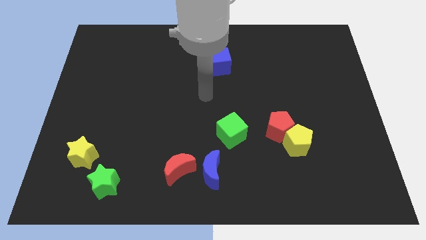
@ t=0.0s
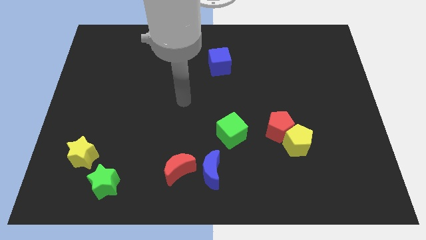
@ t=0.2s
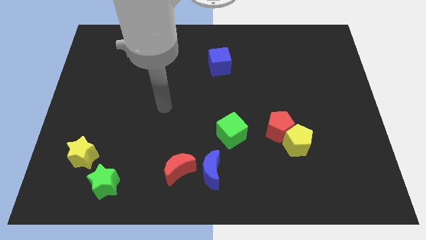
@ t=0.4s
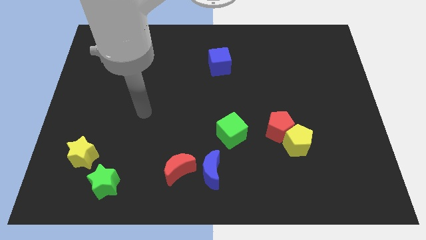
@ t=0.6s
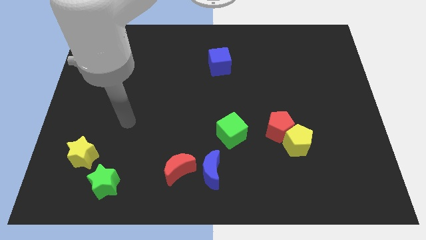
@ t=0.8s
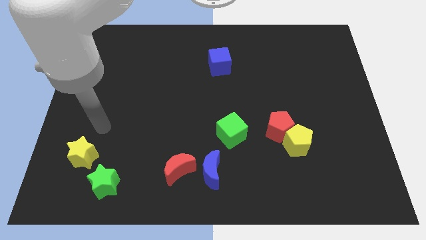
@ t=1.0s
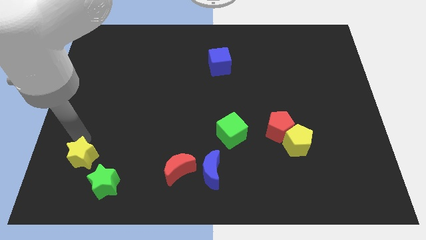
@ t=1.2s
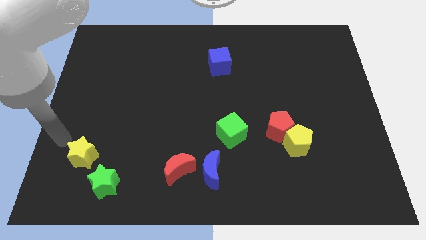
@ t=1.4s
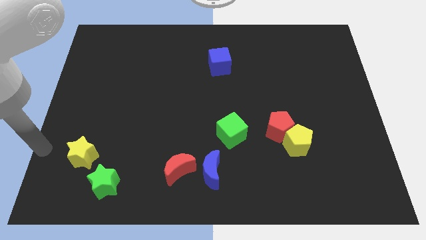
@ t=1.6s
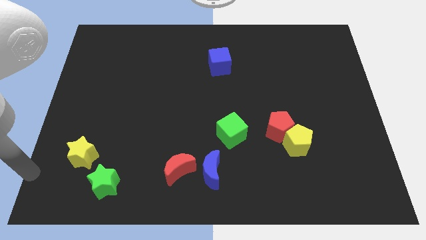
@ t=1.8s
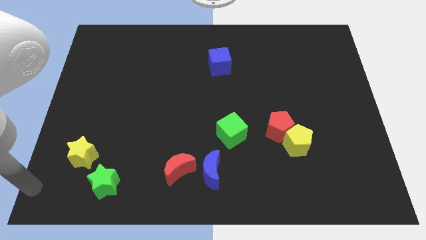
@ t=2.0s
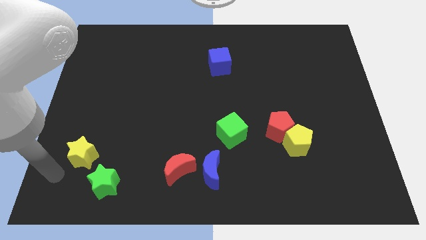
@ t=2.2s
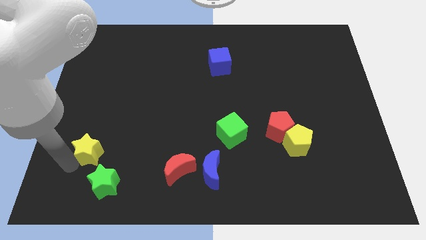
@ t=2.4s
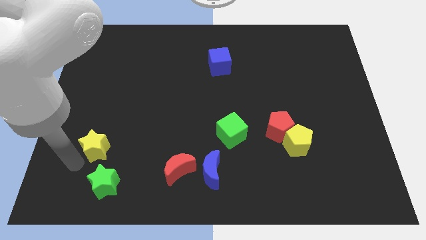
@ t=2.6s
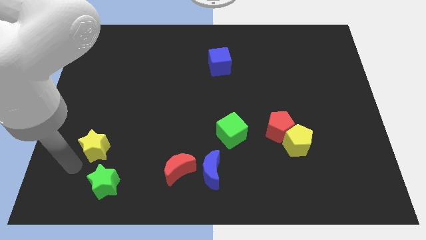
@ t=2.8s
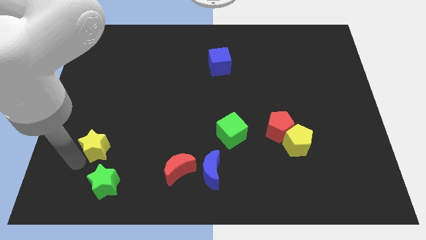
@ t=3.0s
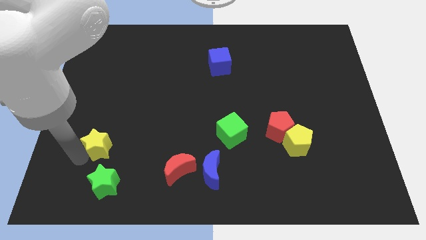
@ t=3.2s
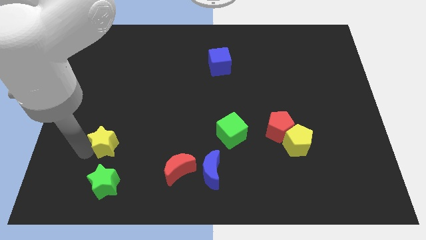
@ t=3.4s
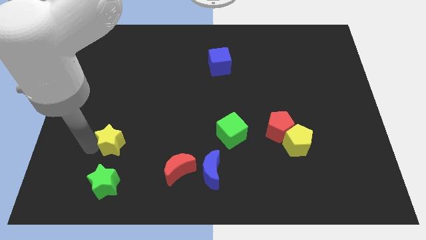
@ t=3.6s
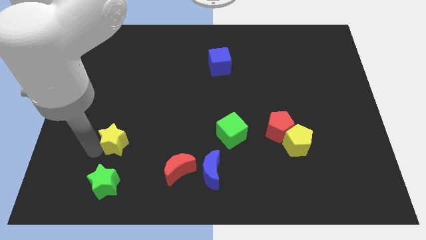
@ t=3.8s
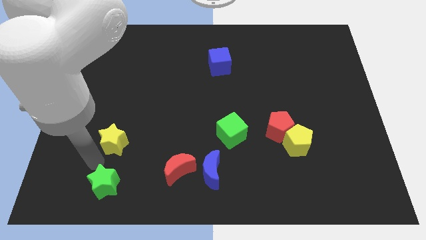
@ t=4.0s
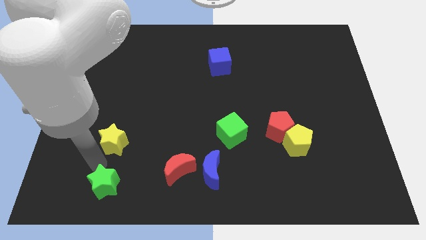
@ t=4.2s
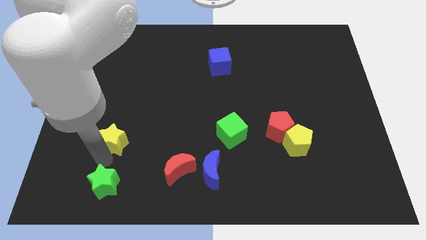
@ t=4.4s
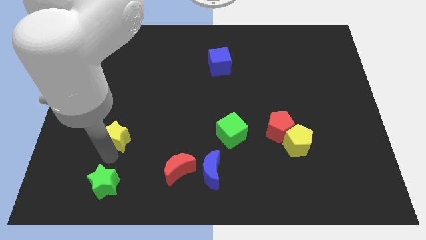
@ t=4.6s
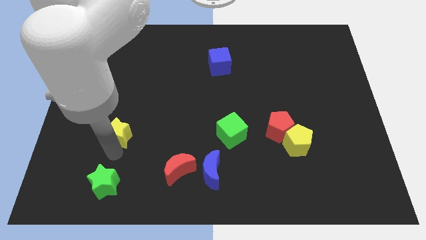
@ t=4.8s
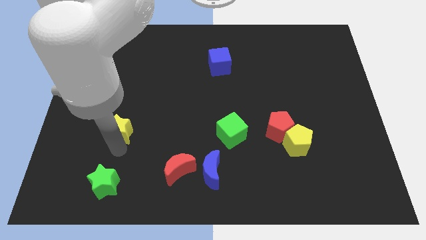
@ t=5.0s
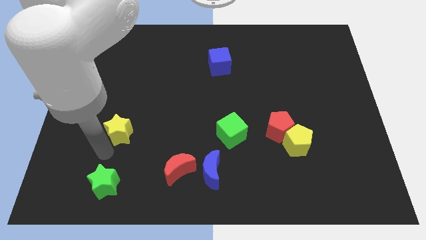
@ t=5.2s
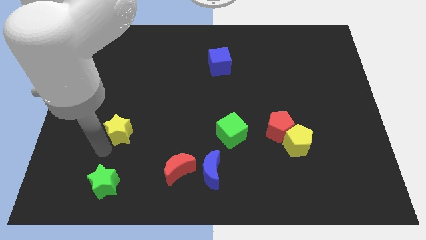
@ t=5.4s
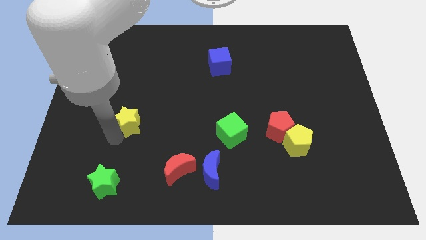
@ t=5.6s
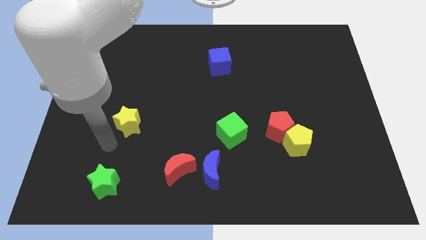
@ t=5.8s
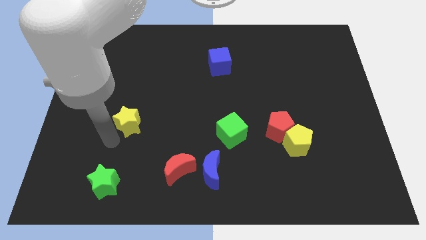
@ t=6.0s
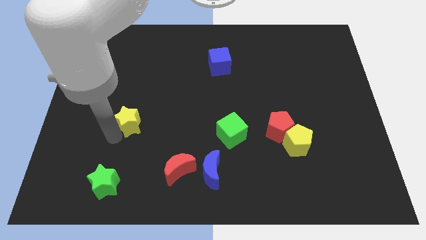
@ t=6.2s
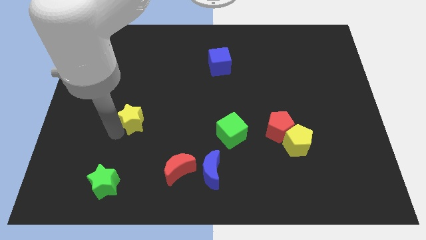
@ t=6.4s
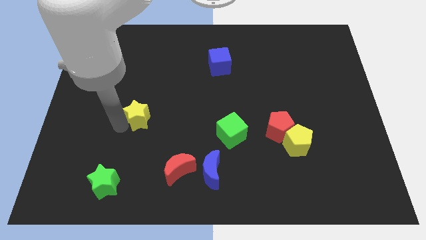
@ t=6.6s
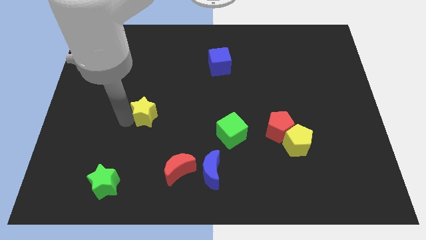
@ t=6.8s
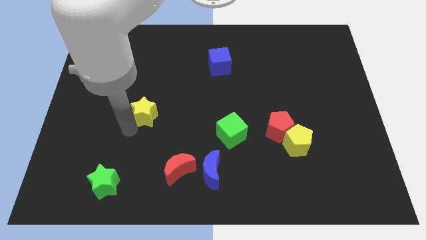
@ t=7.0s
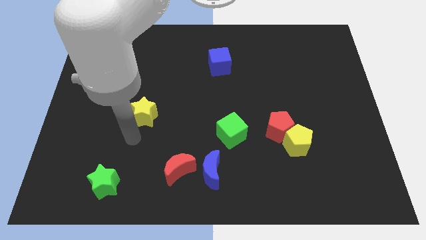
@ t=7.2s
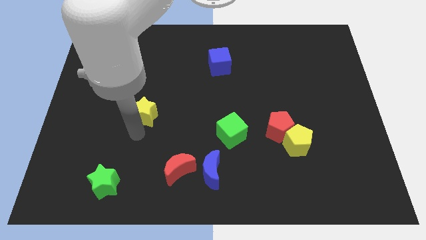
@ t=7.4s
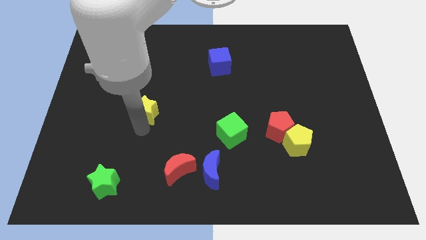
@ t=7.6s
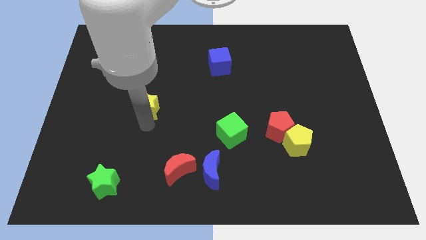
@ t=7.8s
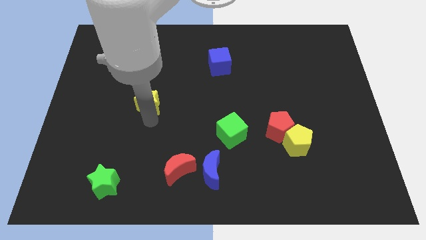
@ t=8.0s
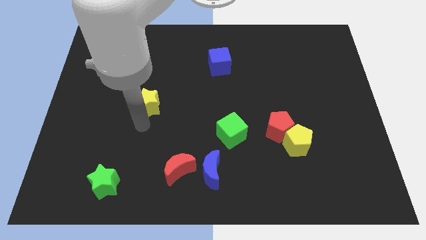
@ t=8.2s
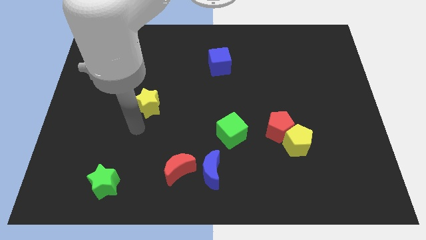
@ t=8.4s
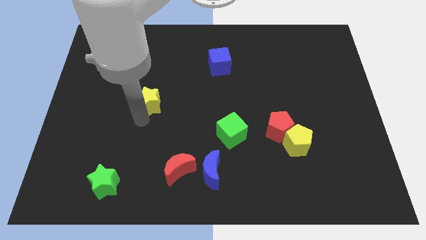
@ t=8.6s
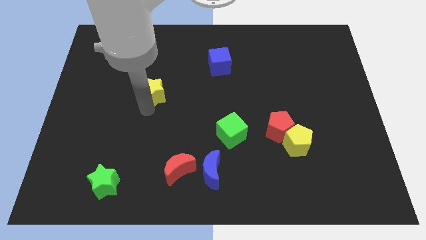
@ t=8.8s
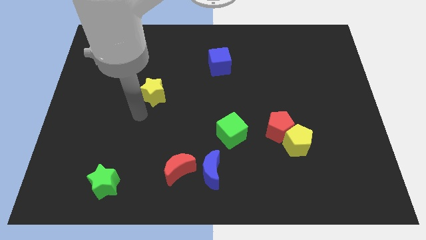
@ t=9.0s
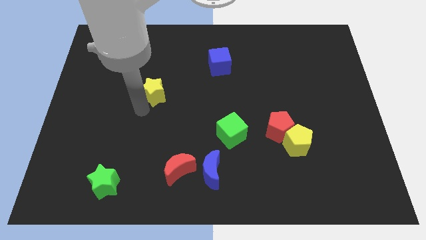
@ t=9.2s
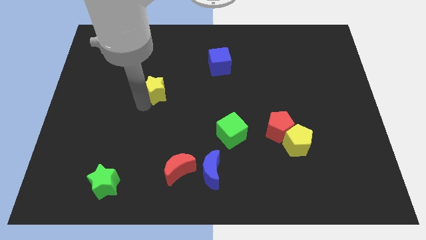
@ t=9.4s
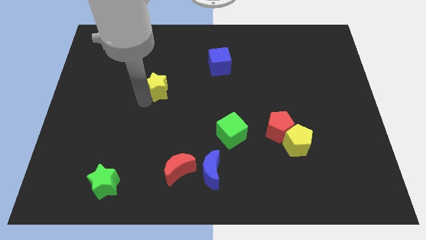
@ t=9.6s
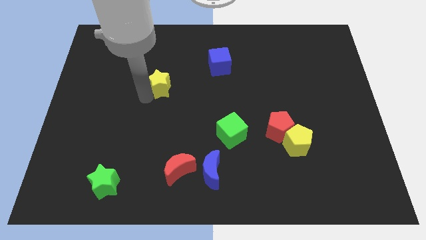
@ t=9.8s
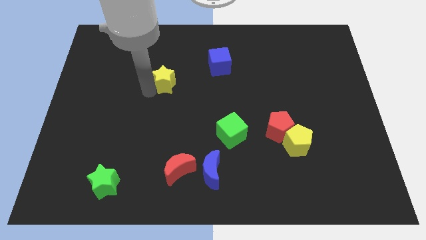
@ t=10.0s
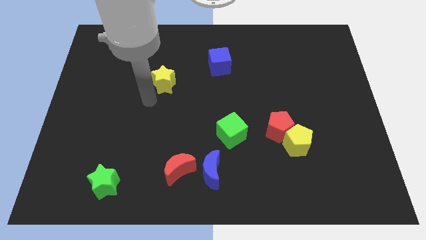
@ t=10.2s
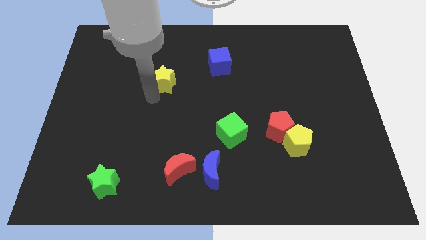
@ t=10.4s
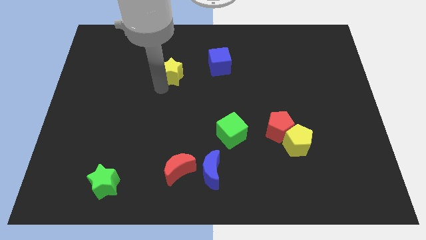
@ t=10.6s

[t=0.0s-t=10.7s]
slide the yellow star just left of the blue cube

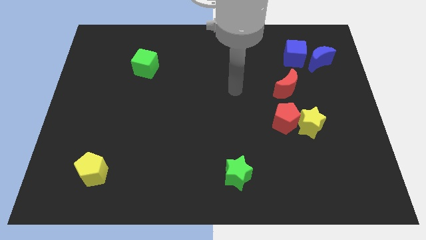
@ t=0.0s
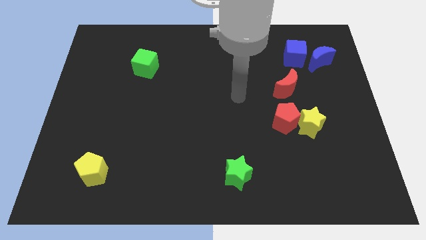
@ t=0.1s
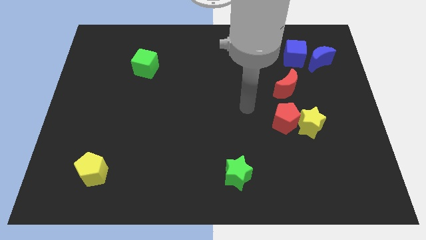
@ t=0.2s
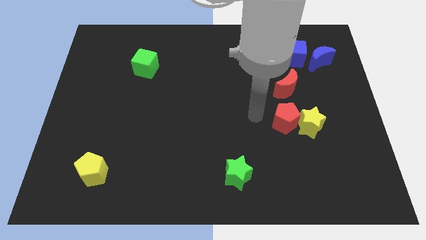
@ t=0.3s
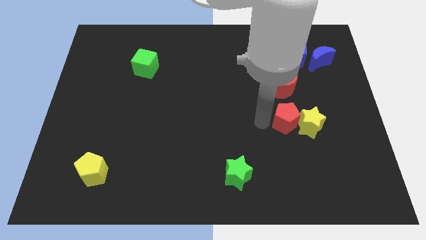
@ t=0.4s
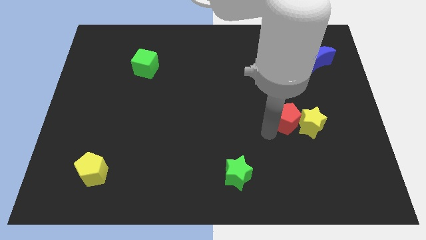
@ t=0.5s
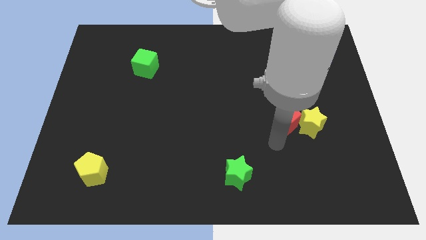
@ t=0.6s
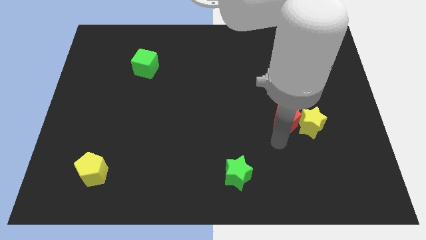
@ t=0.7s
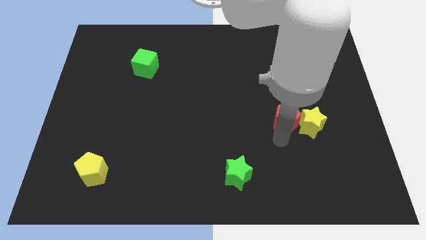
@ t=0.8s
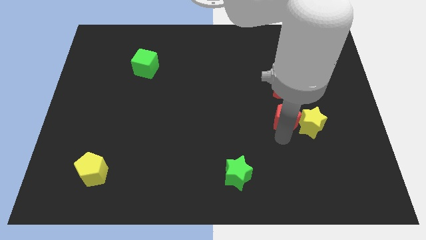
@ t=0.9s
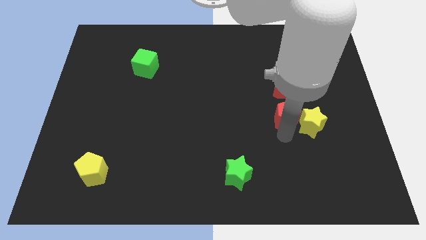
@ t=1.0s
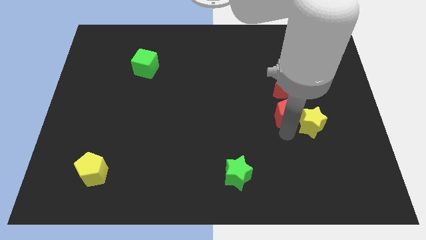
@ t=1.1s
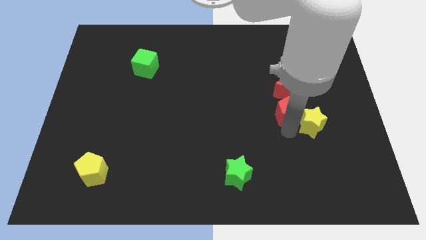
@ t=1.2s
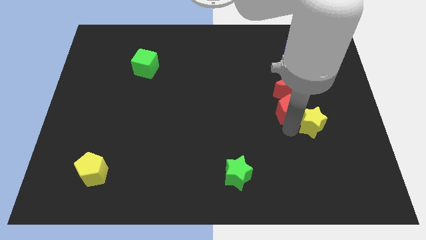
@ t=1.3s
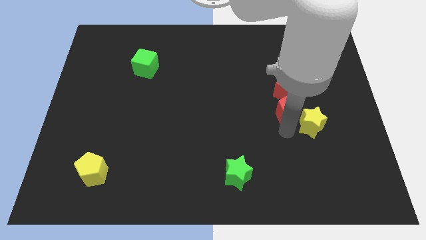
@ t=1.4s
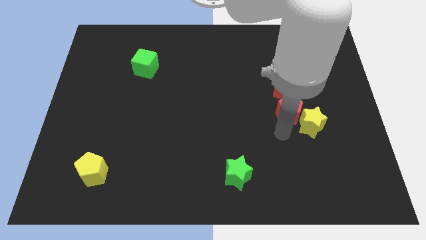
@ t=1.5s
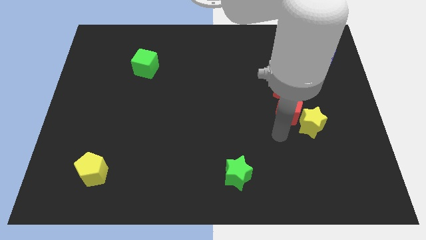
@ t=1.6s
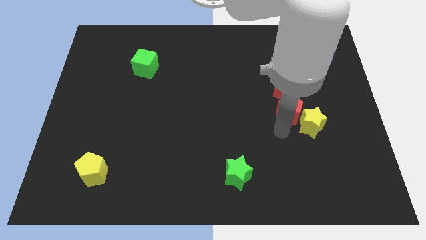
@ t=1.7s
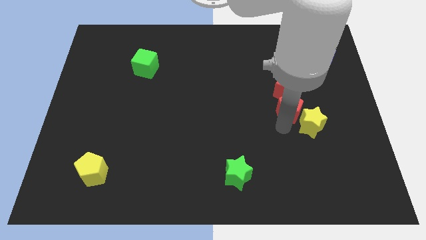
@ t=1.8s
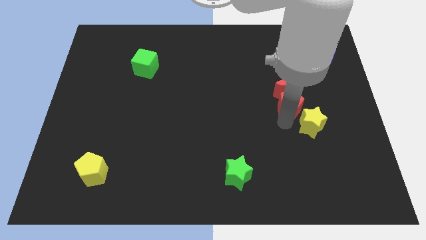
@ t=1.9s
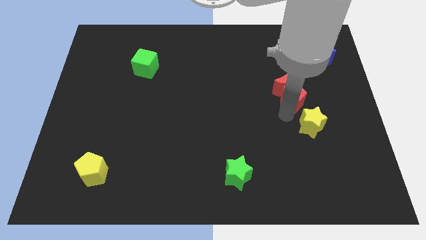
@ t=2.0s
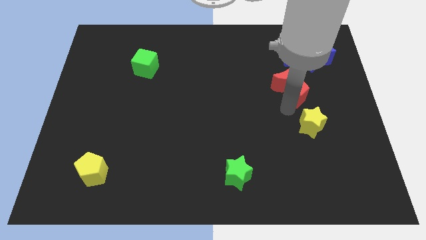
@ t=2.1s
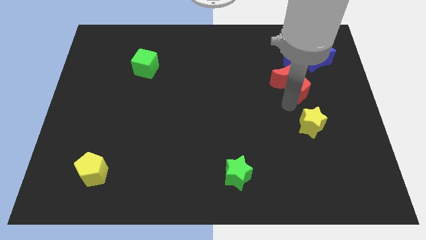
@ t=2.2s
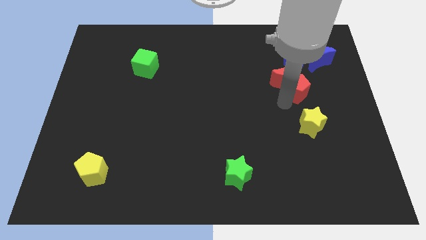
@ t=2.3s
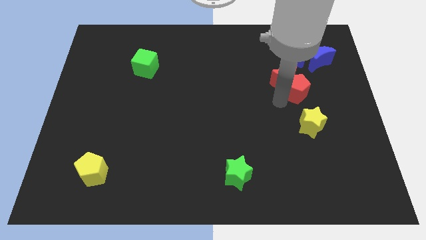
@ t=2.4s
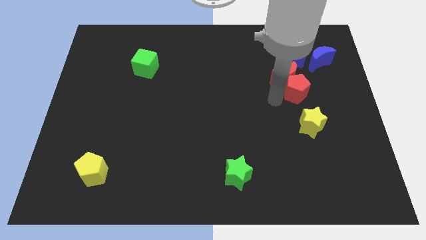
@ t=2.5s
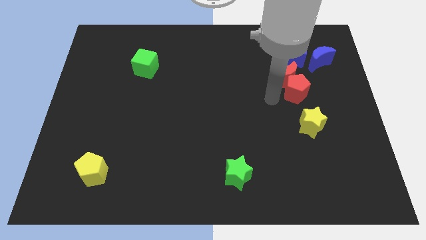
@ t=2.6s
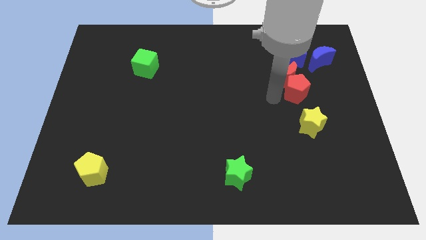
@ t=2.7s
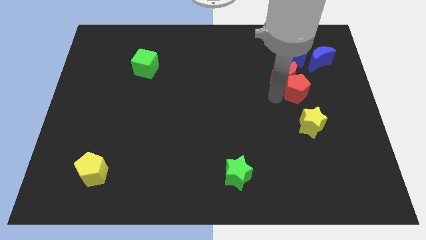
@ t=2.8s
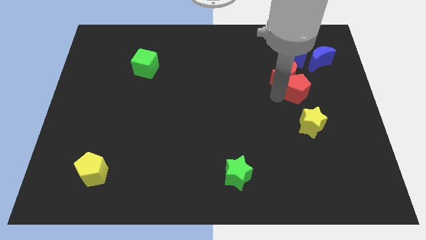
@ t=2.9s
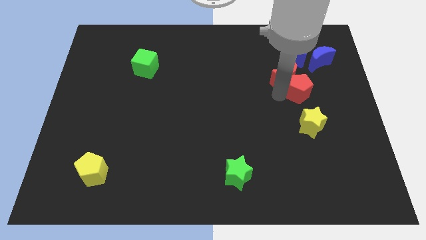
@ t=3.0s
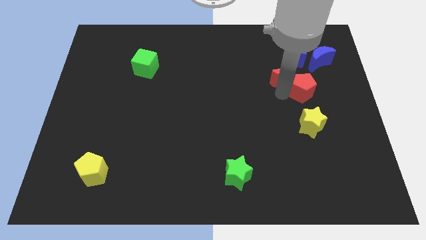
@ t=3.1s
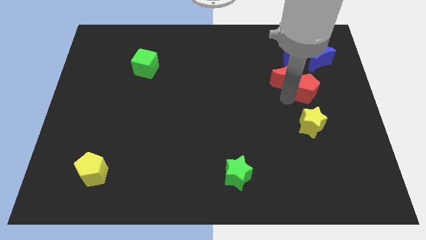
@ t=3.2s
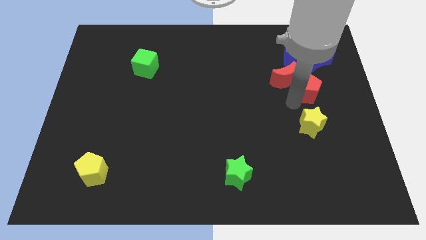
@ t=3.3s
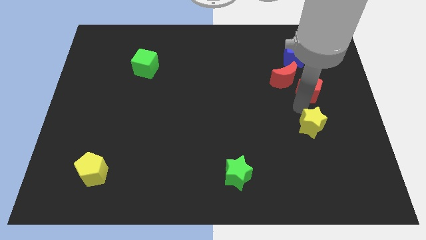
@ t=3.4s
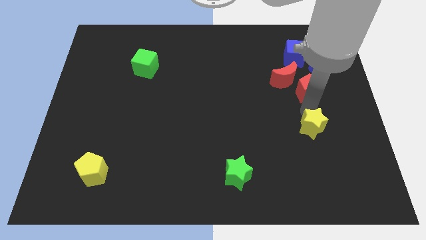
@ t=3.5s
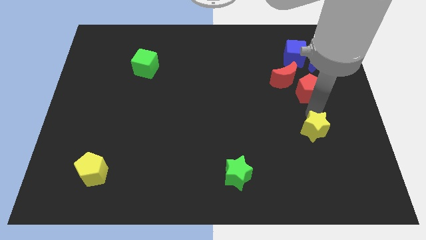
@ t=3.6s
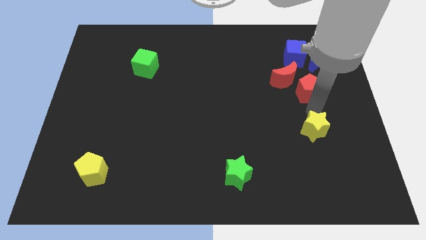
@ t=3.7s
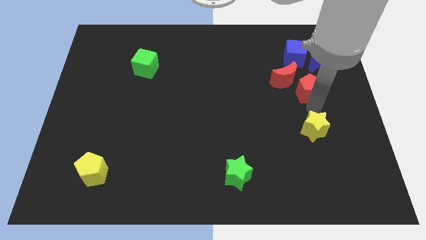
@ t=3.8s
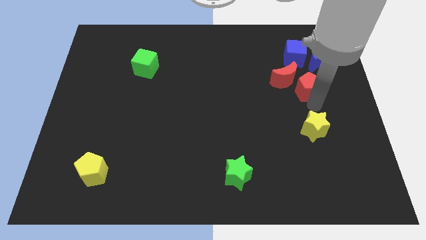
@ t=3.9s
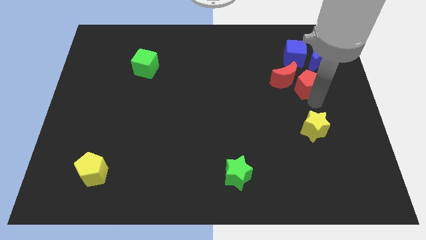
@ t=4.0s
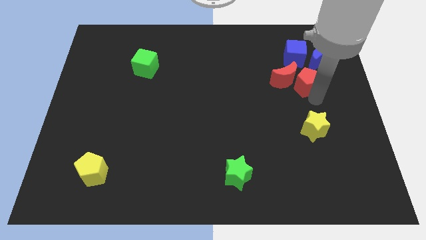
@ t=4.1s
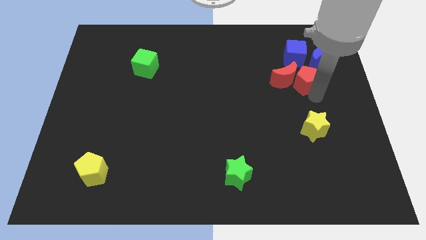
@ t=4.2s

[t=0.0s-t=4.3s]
move the red pentagon diagonally up and to the right of the red moon
